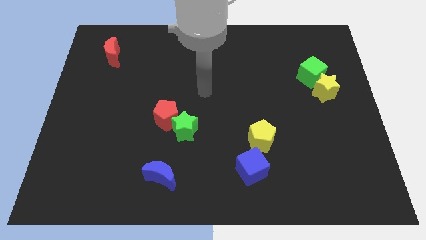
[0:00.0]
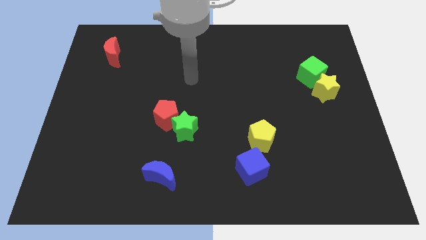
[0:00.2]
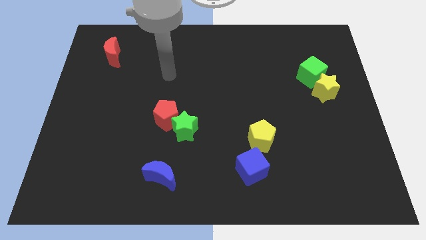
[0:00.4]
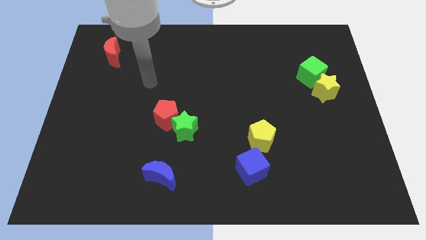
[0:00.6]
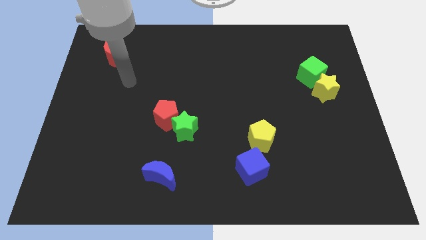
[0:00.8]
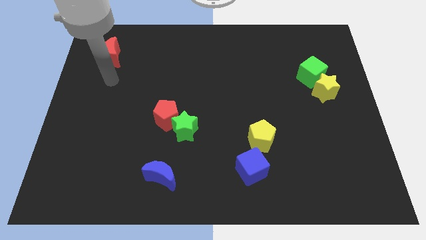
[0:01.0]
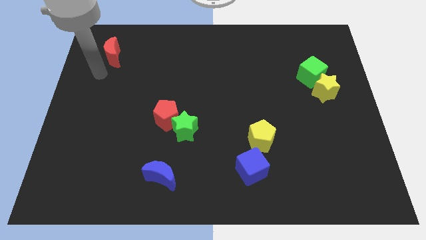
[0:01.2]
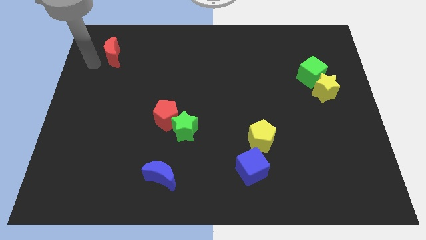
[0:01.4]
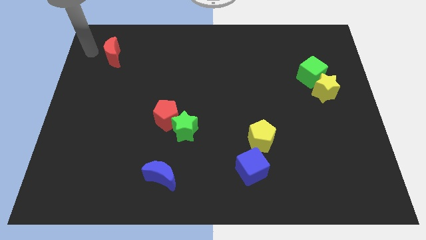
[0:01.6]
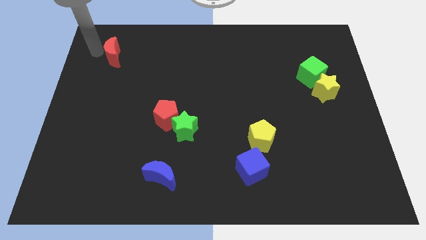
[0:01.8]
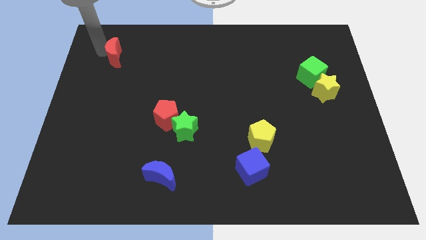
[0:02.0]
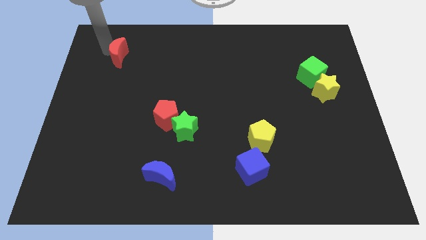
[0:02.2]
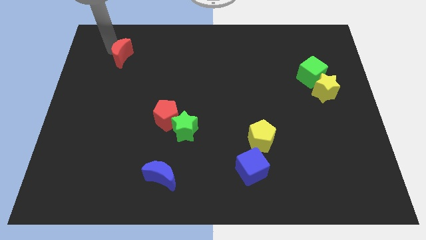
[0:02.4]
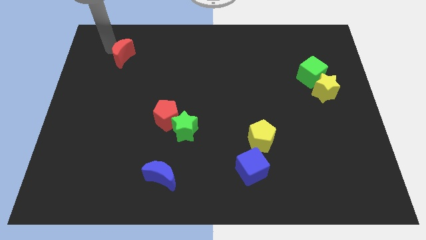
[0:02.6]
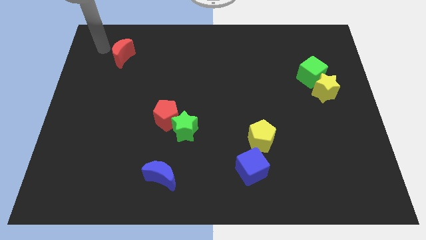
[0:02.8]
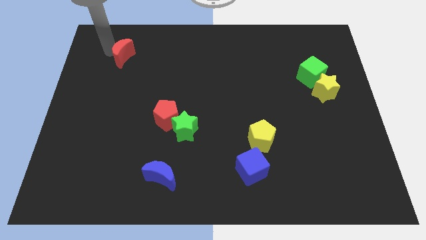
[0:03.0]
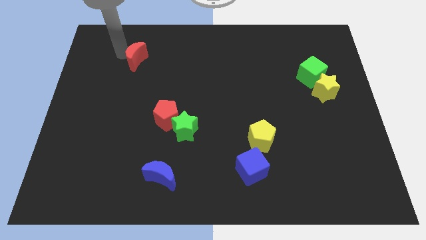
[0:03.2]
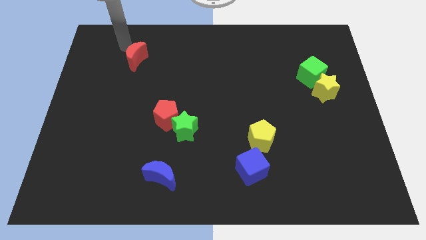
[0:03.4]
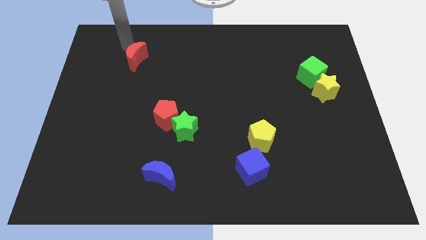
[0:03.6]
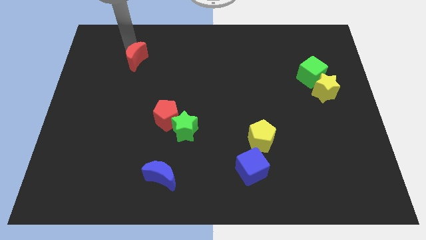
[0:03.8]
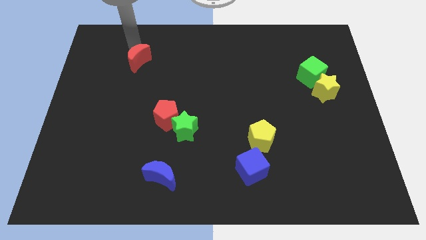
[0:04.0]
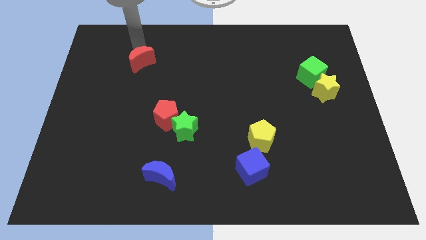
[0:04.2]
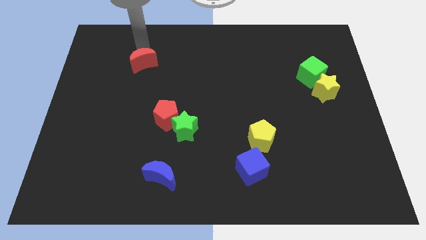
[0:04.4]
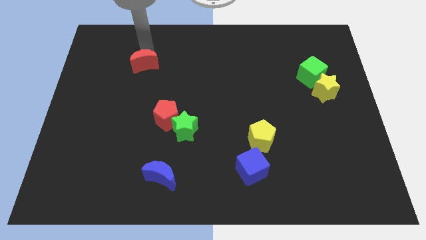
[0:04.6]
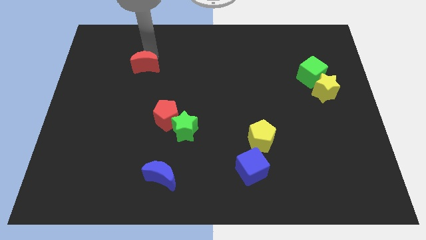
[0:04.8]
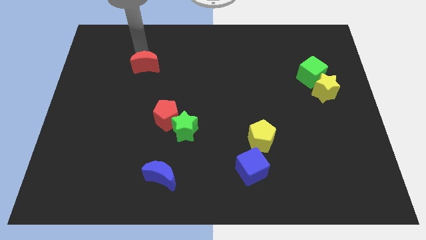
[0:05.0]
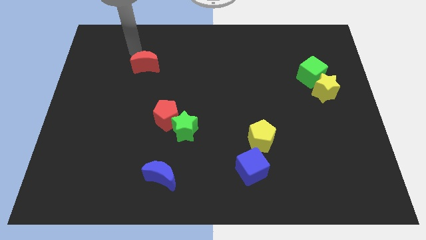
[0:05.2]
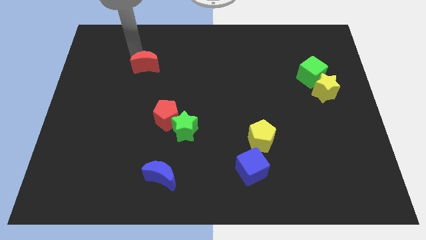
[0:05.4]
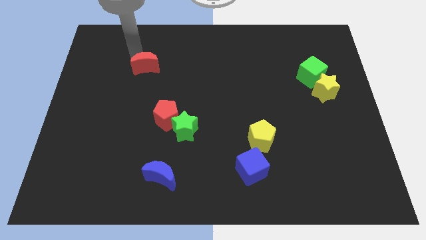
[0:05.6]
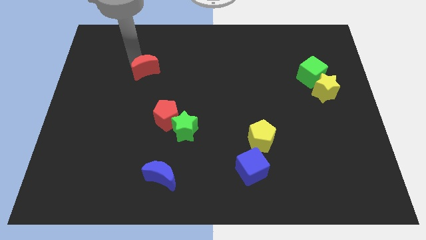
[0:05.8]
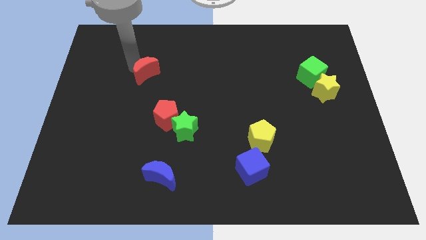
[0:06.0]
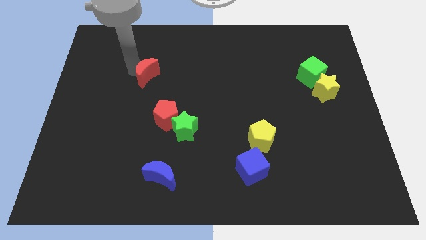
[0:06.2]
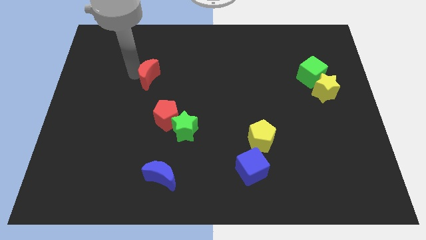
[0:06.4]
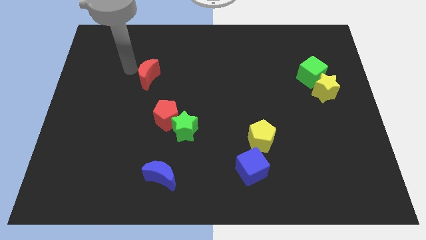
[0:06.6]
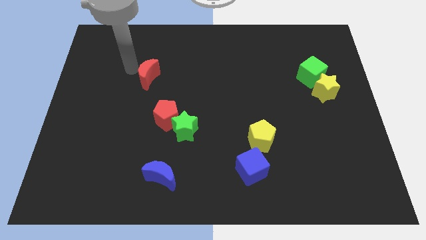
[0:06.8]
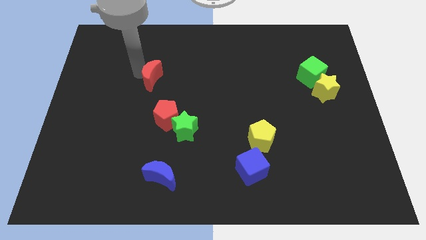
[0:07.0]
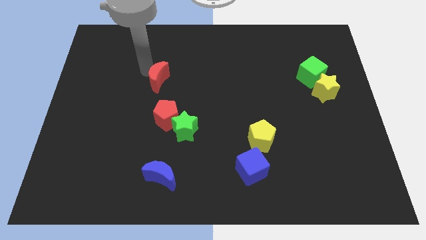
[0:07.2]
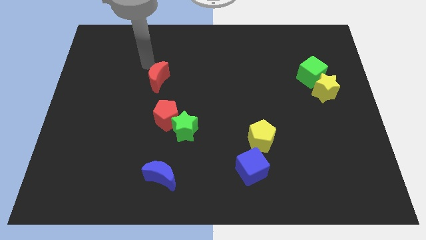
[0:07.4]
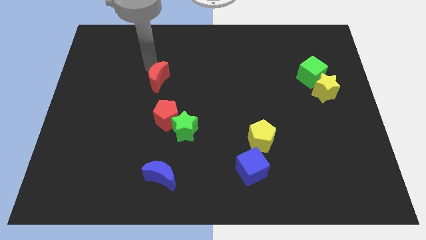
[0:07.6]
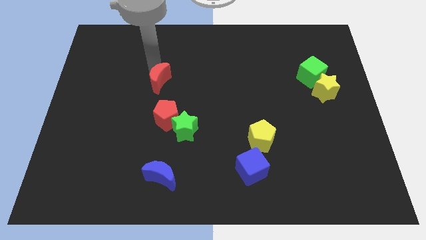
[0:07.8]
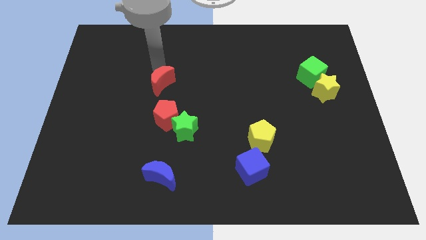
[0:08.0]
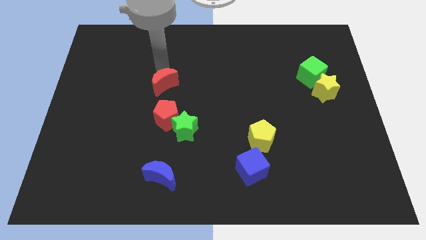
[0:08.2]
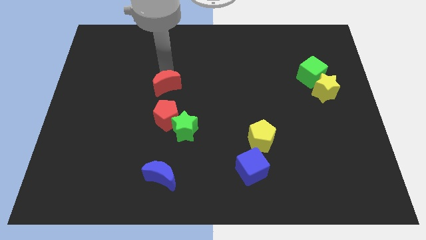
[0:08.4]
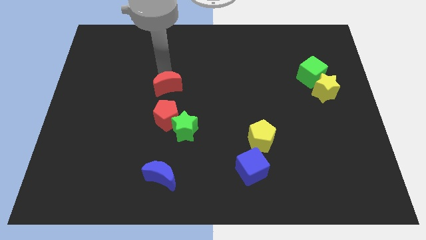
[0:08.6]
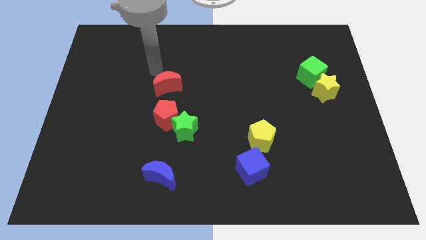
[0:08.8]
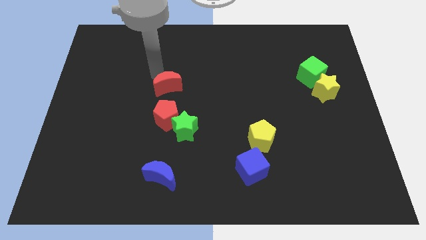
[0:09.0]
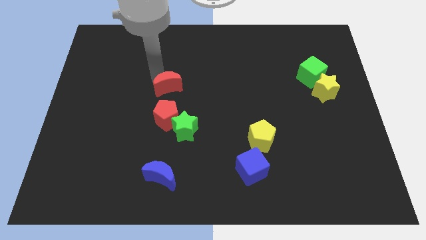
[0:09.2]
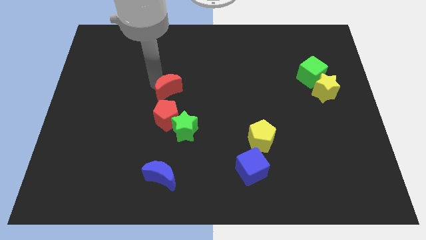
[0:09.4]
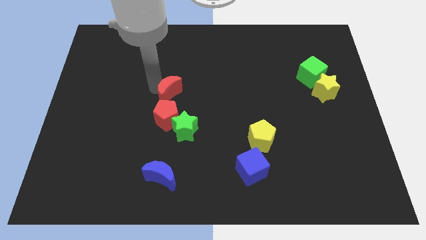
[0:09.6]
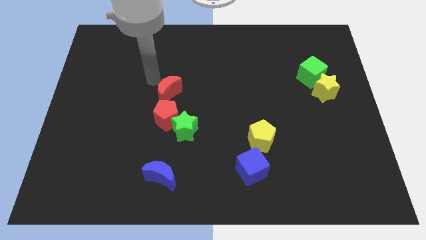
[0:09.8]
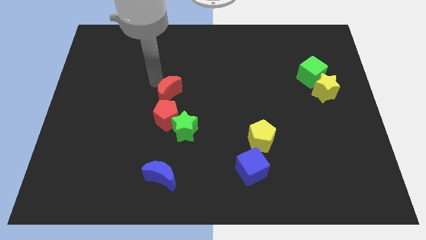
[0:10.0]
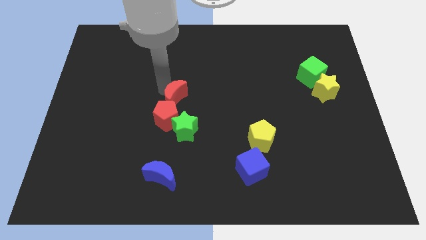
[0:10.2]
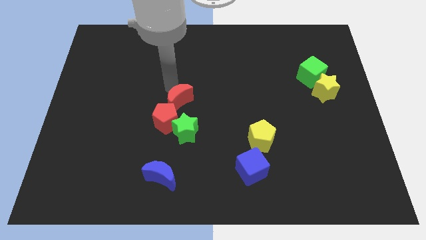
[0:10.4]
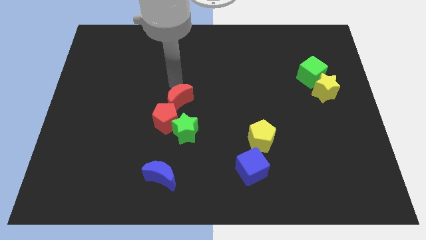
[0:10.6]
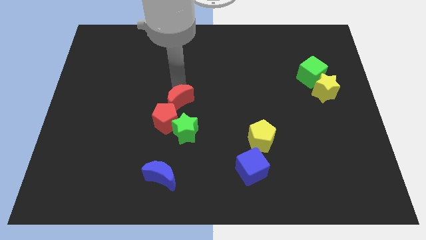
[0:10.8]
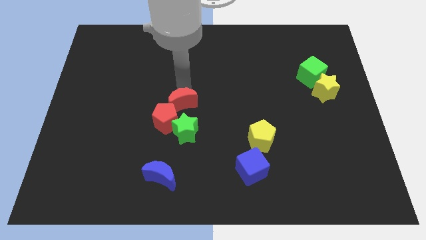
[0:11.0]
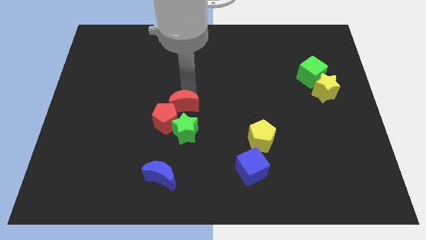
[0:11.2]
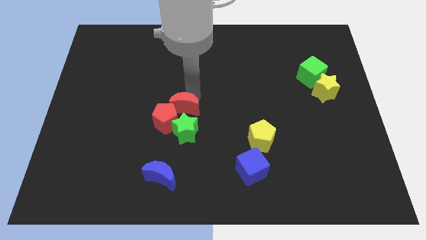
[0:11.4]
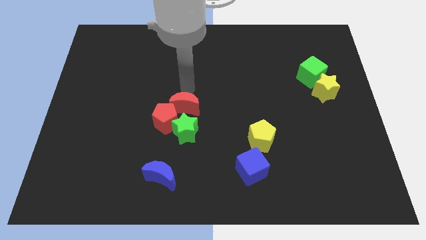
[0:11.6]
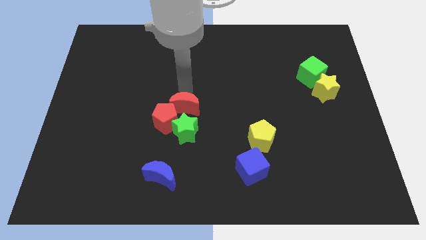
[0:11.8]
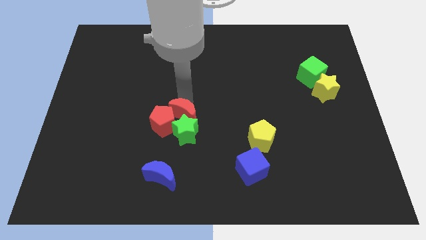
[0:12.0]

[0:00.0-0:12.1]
push the red moon next to the green star

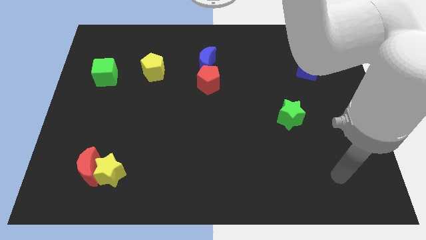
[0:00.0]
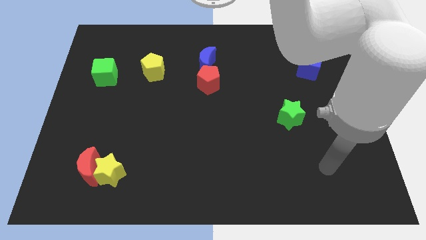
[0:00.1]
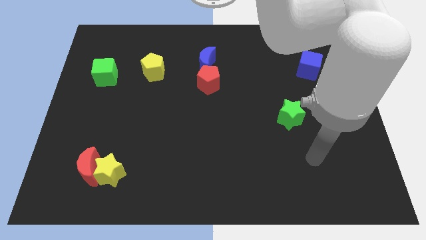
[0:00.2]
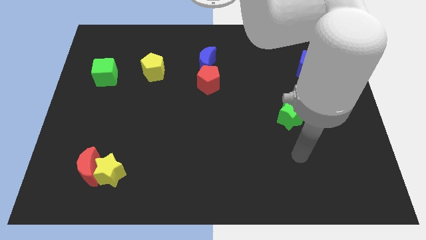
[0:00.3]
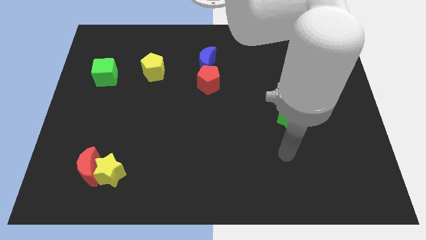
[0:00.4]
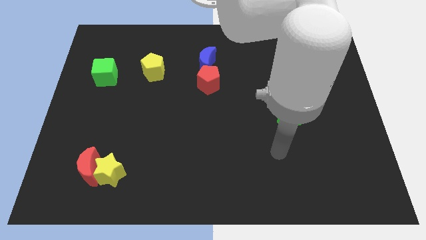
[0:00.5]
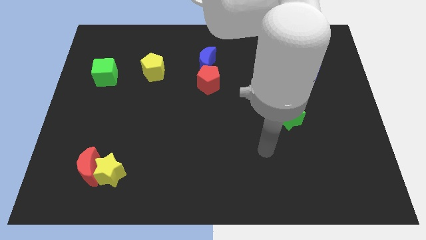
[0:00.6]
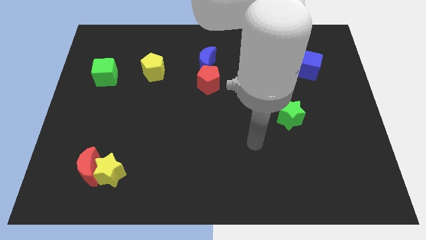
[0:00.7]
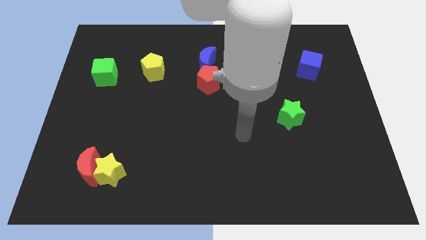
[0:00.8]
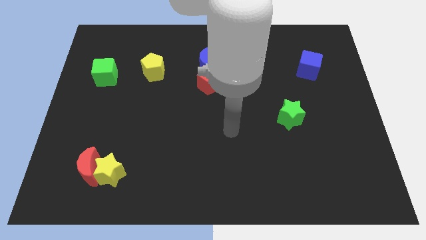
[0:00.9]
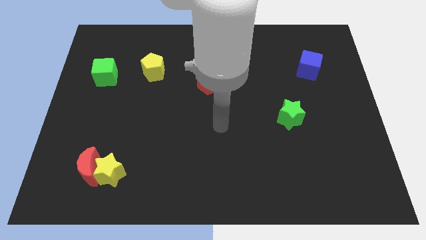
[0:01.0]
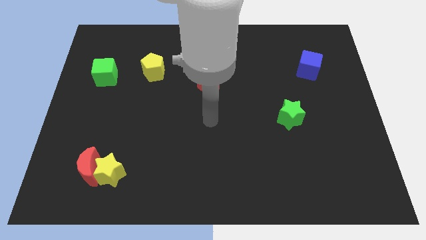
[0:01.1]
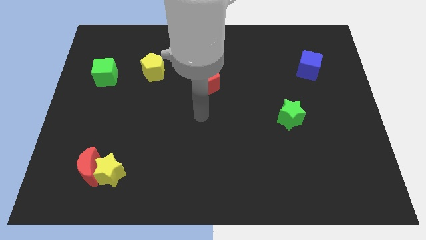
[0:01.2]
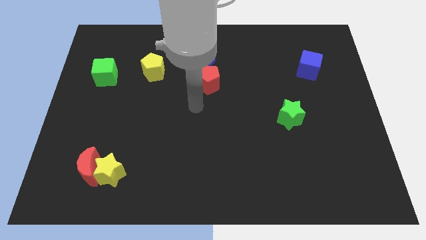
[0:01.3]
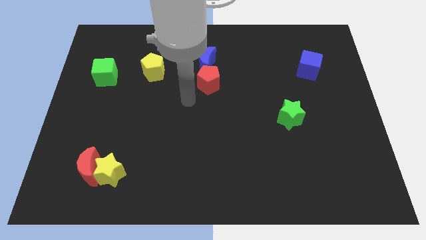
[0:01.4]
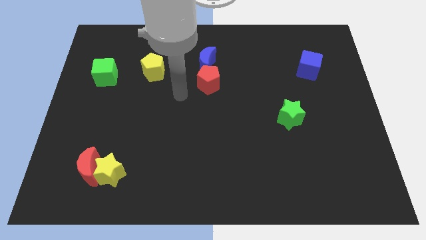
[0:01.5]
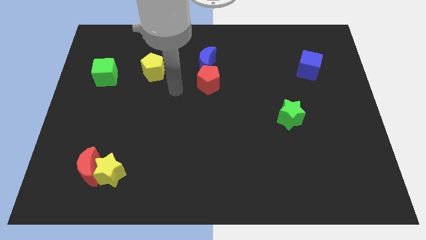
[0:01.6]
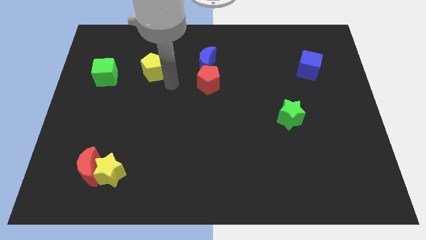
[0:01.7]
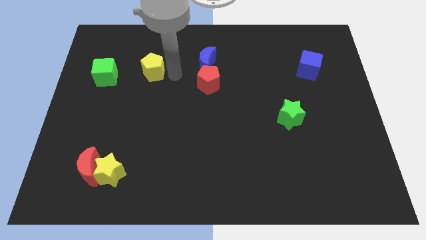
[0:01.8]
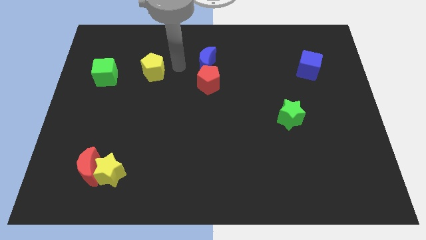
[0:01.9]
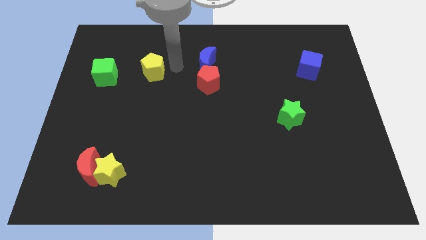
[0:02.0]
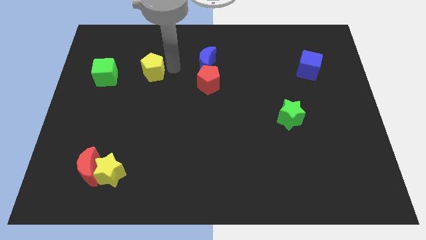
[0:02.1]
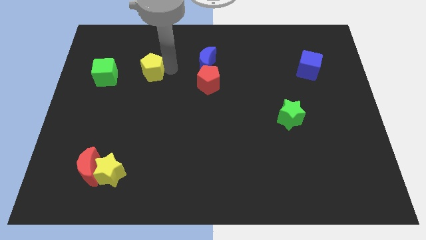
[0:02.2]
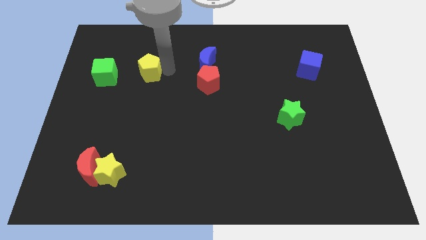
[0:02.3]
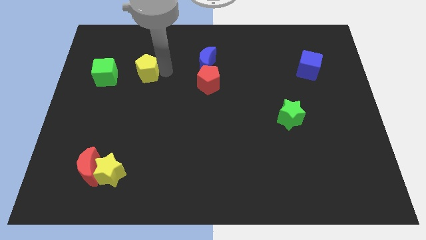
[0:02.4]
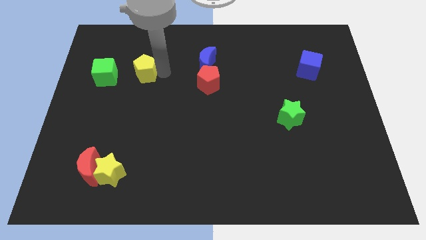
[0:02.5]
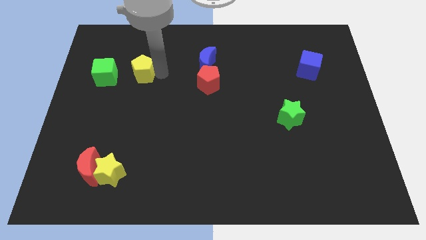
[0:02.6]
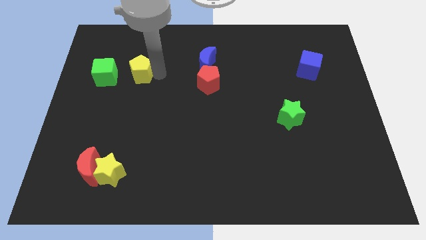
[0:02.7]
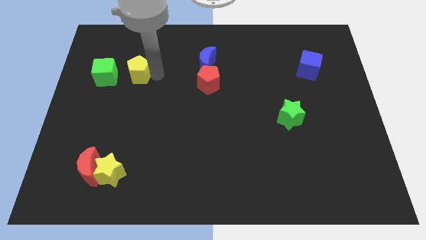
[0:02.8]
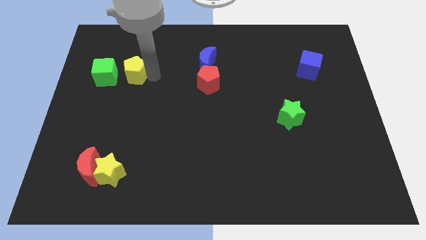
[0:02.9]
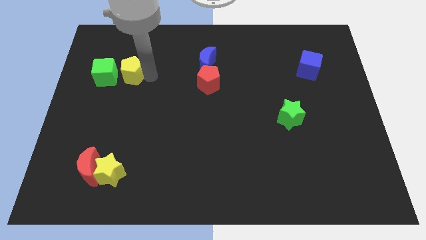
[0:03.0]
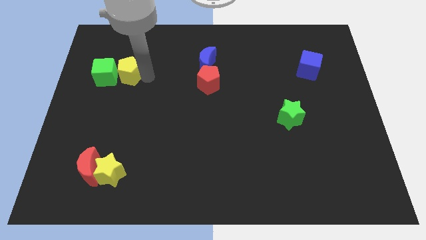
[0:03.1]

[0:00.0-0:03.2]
put the yellow pentagon next to the green cube
